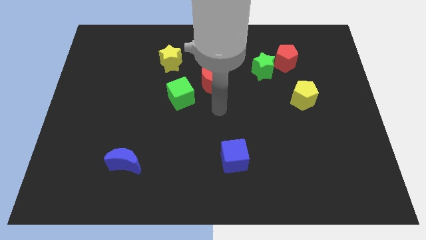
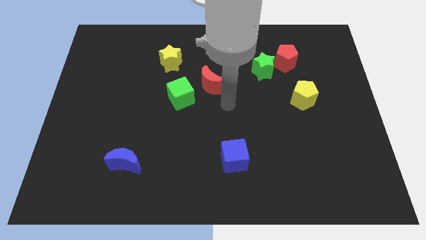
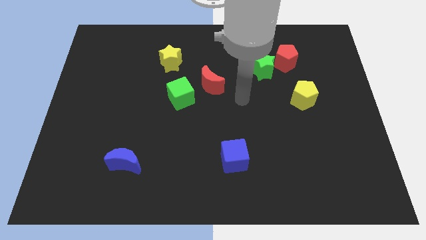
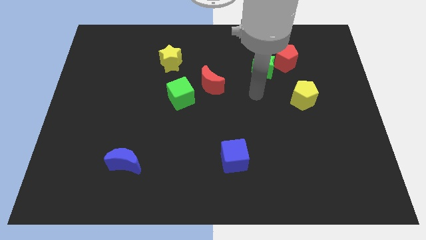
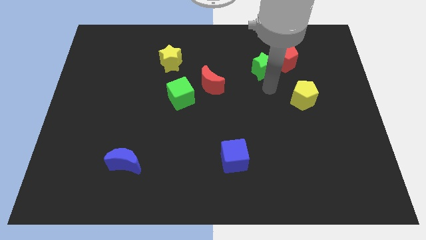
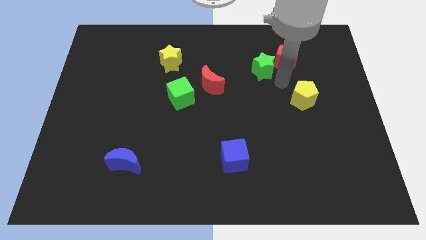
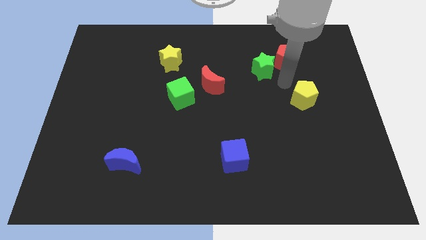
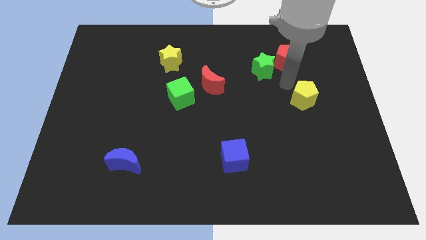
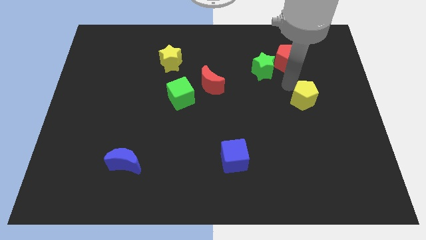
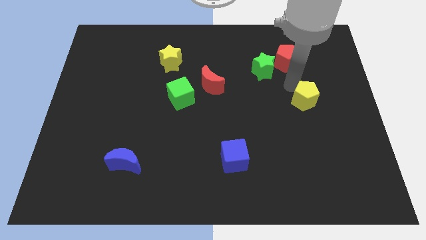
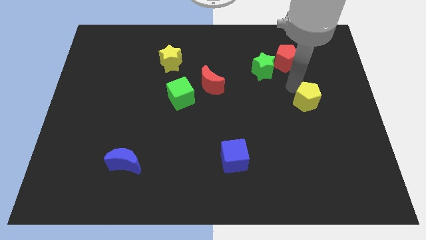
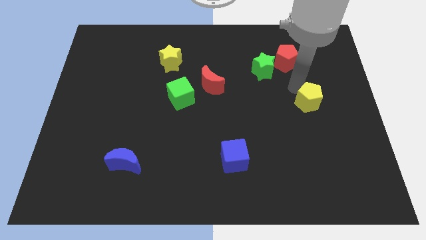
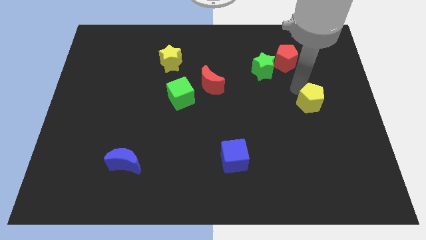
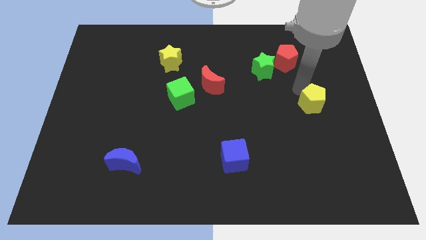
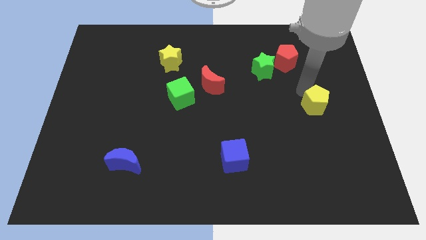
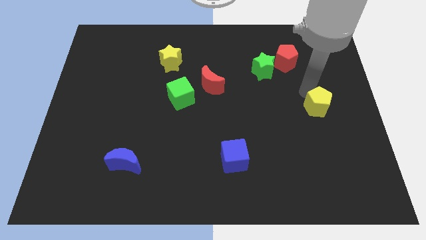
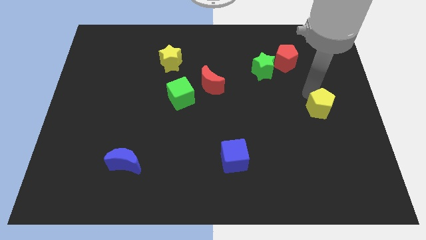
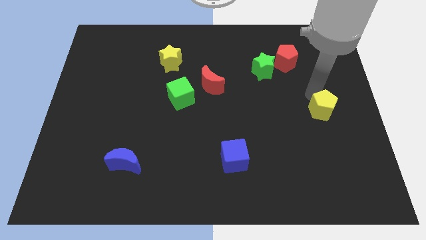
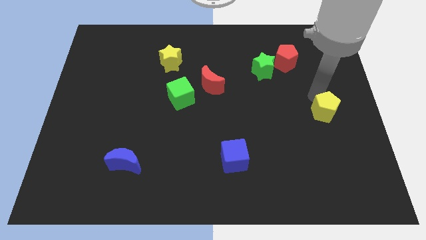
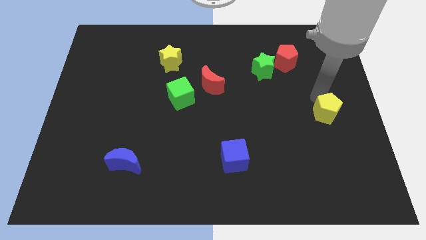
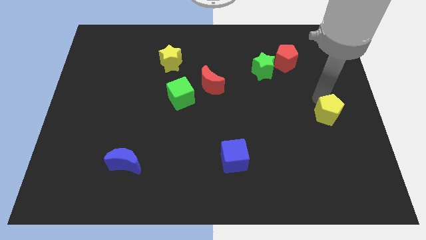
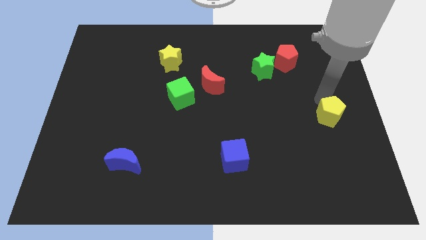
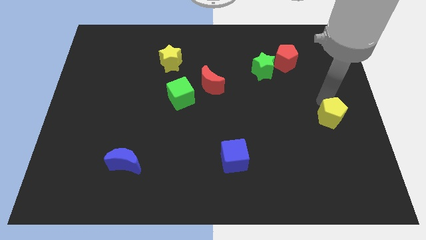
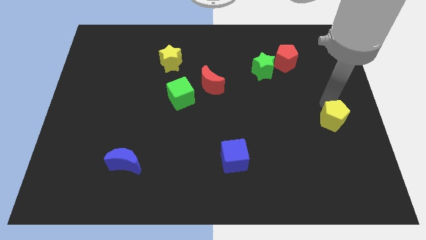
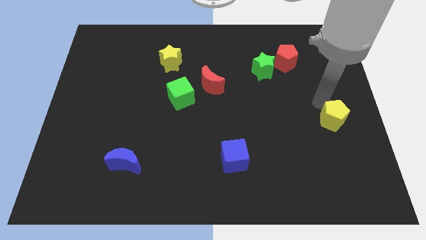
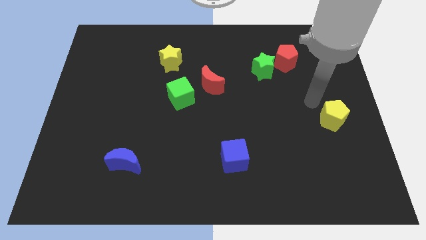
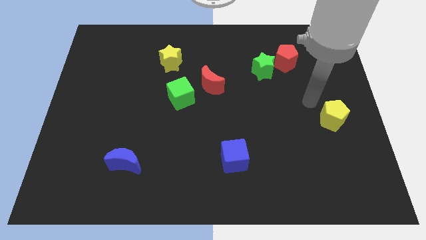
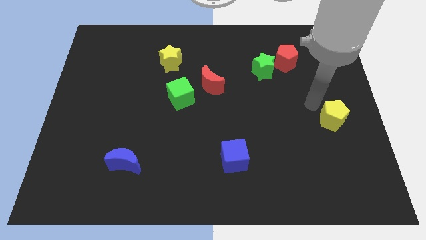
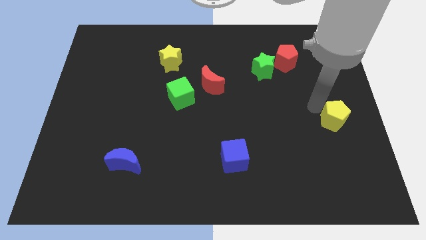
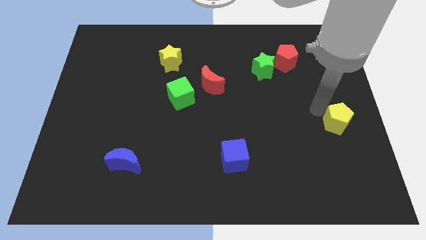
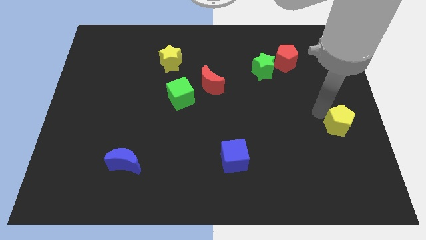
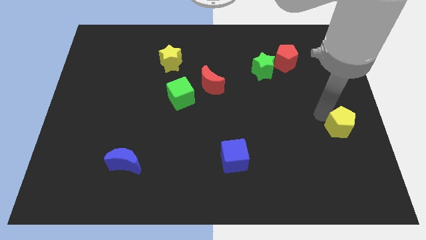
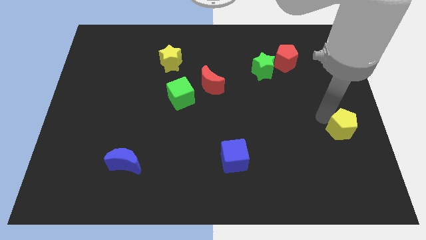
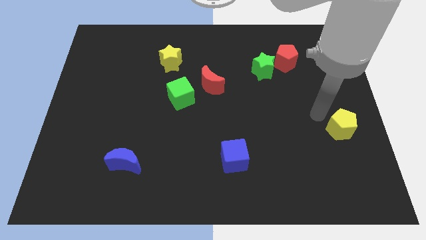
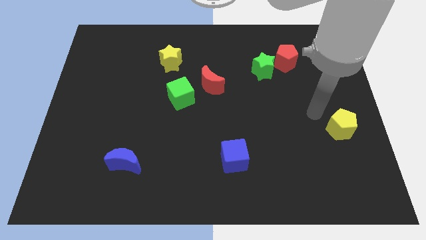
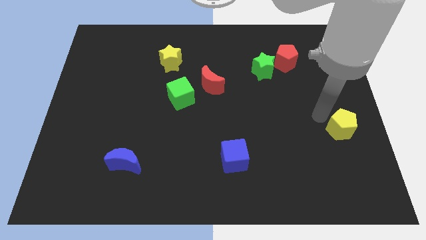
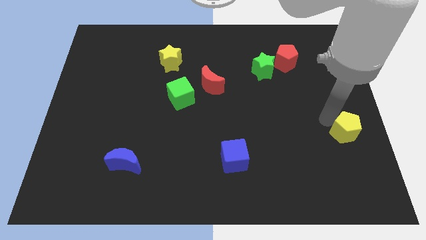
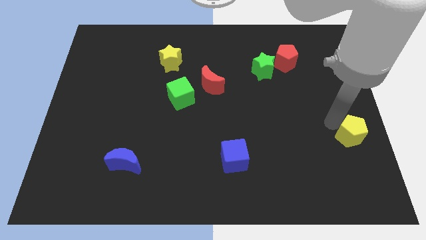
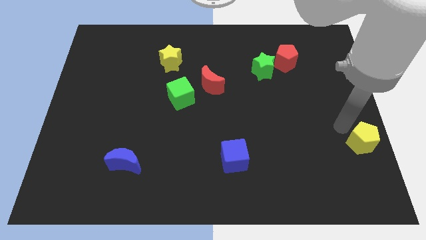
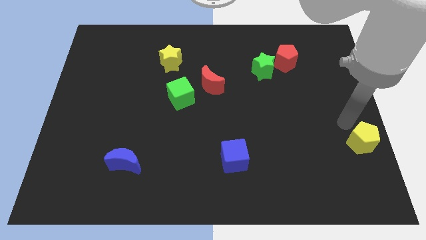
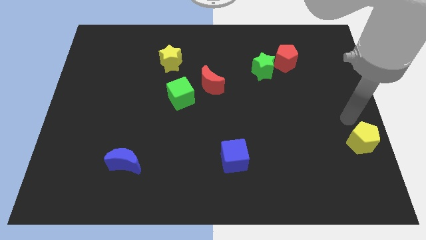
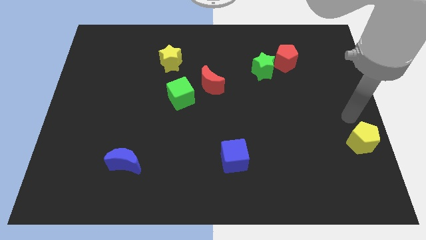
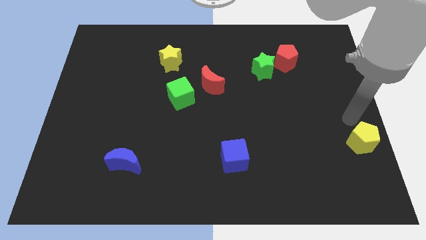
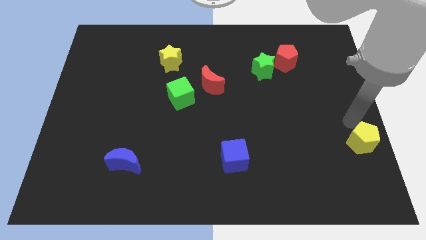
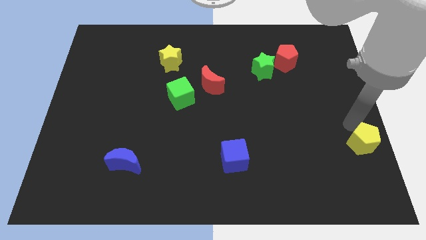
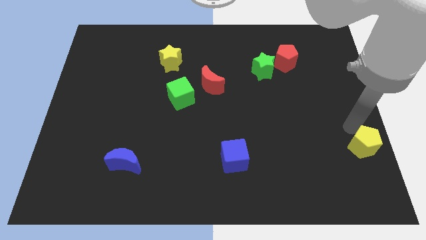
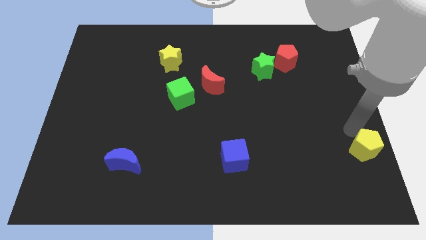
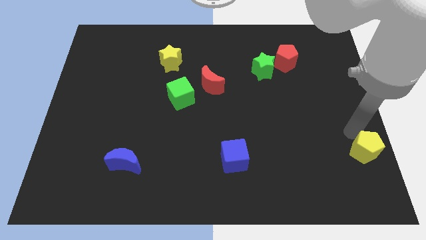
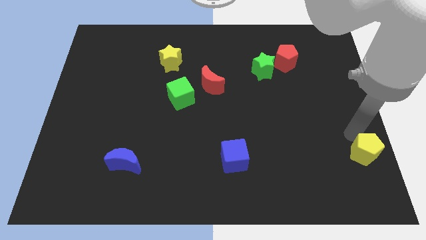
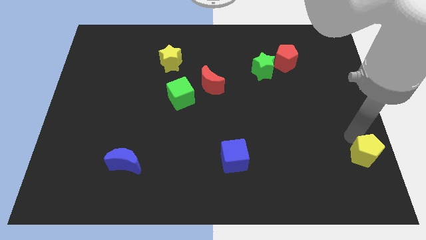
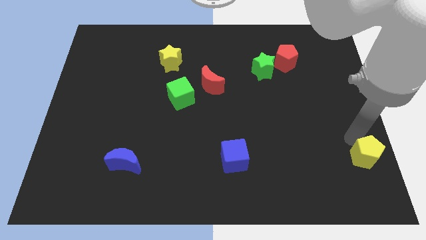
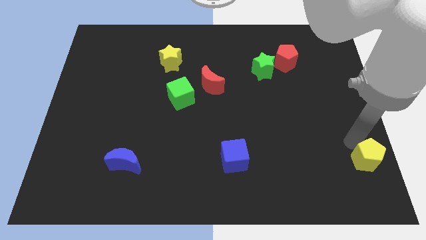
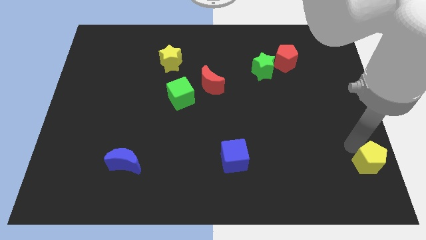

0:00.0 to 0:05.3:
push the yellow pentagon to the lower right corner

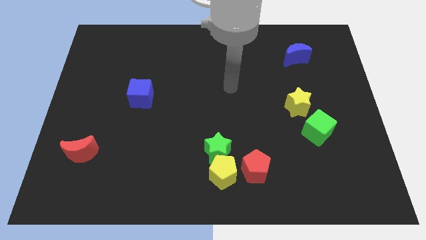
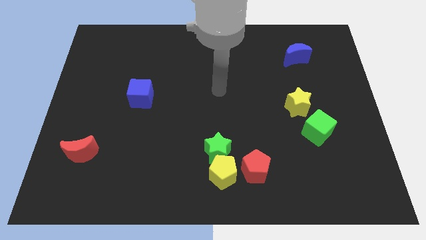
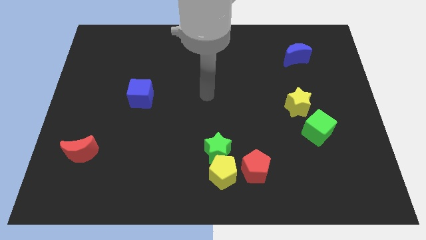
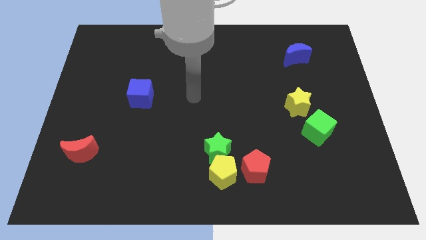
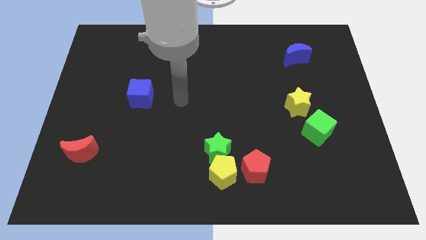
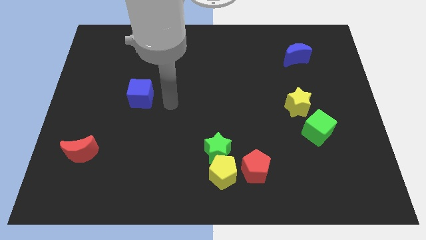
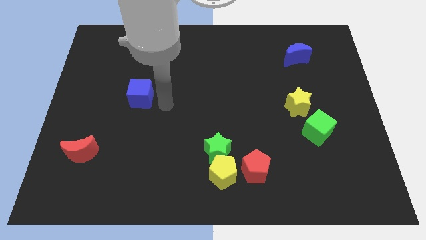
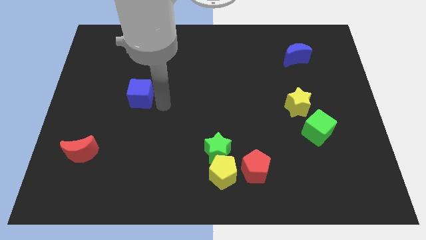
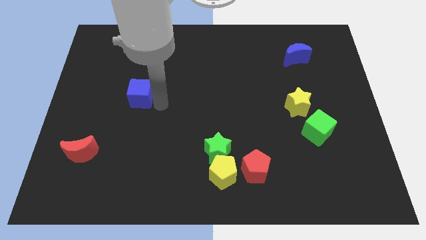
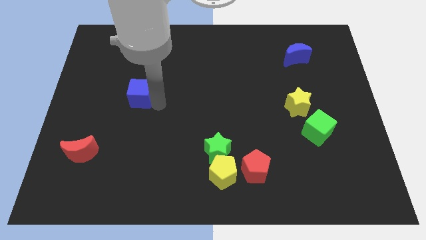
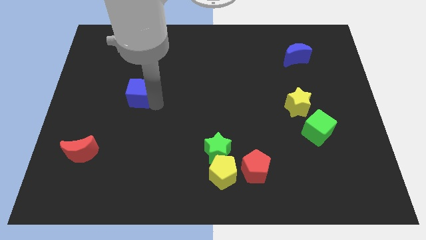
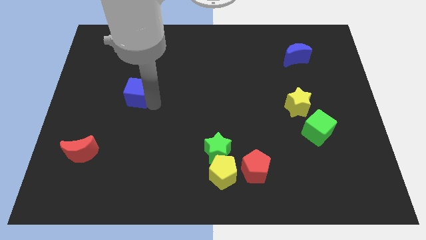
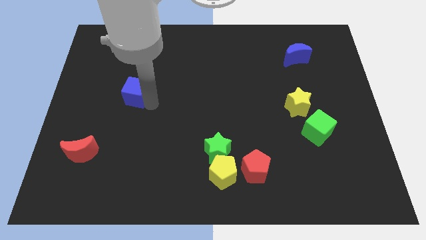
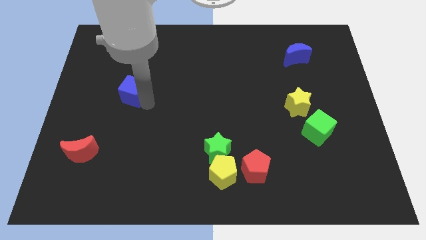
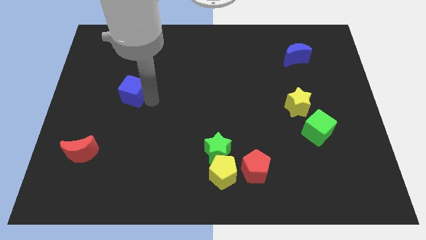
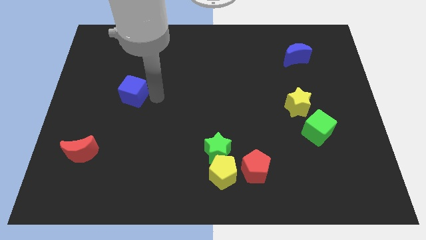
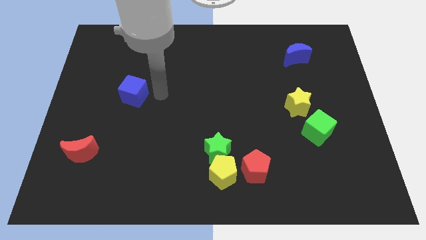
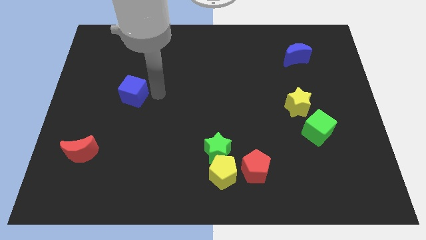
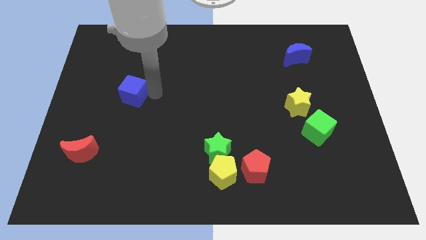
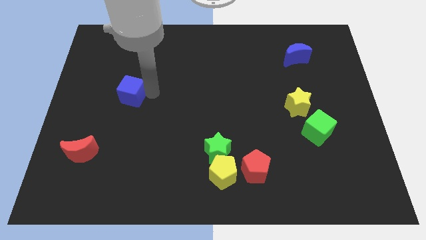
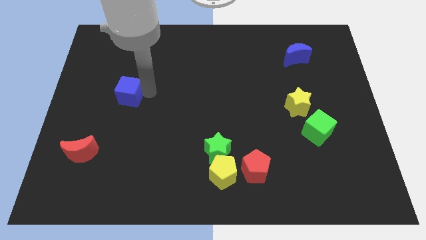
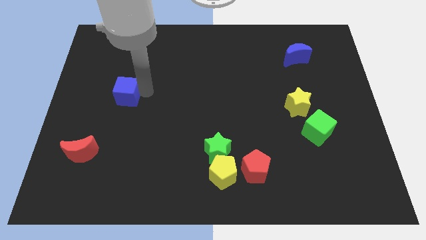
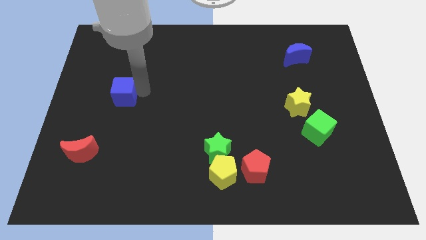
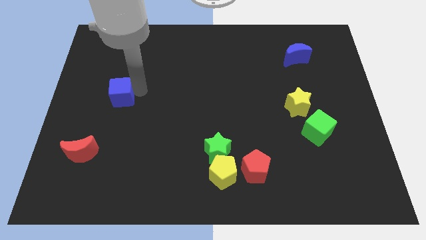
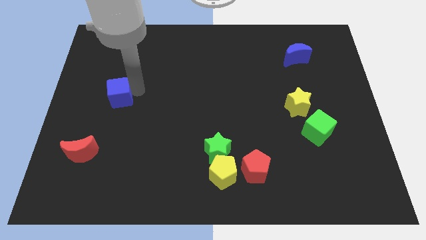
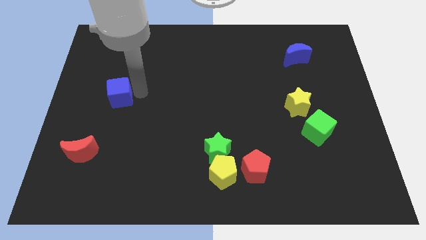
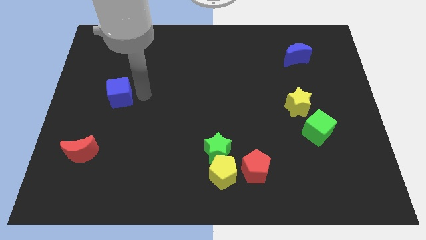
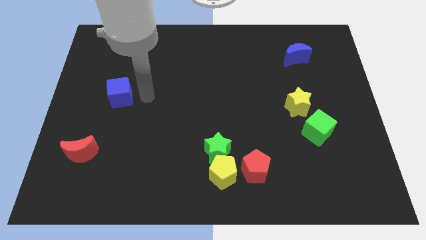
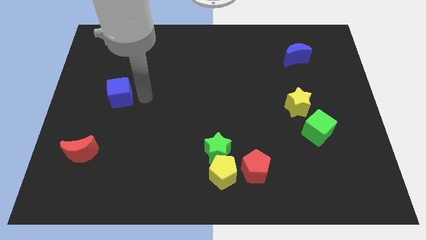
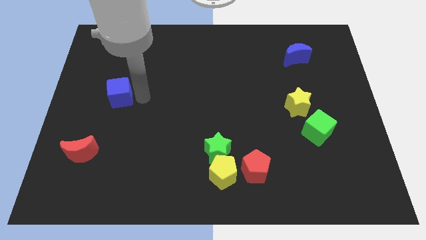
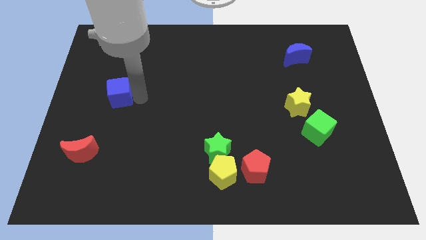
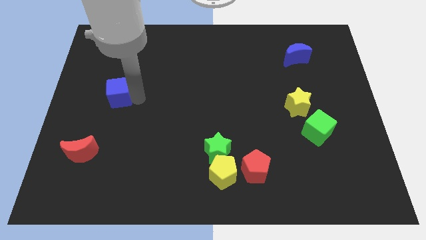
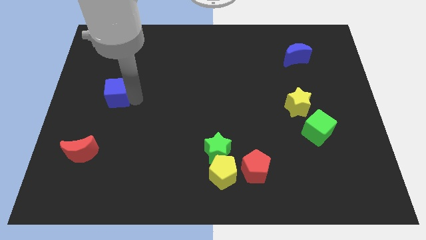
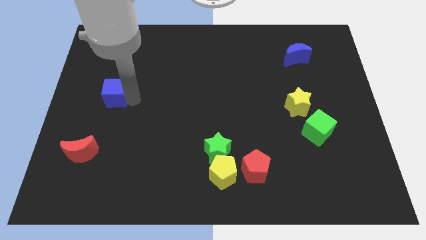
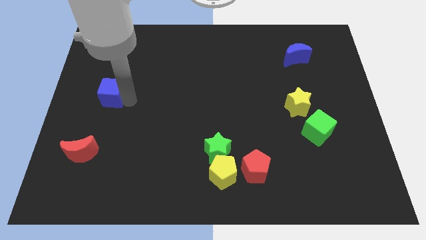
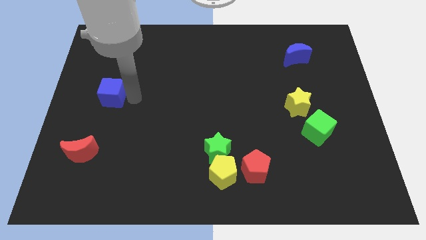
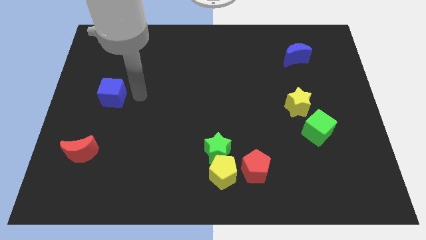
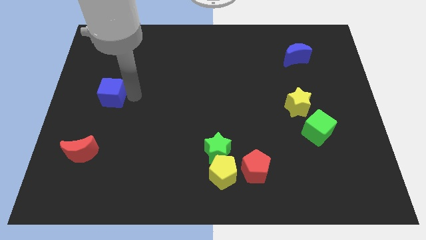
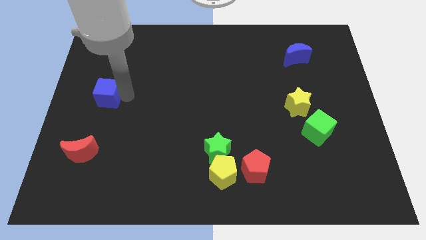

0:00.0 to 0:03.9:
slide the blue cube to the left side
